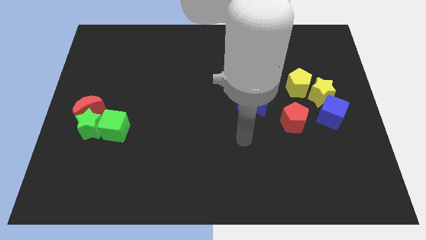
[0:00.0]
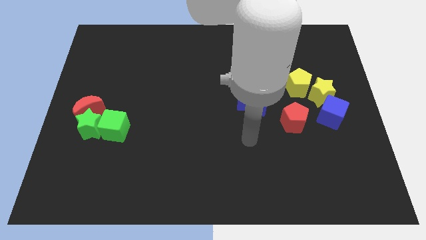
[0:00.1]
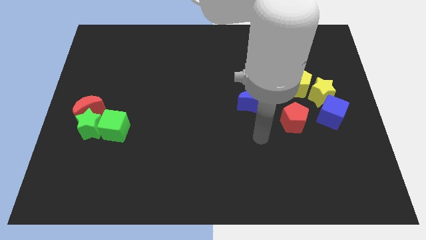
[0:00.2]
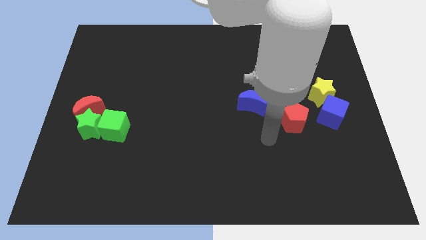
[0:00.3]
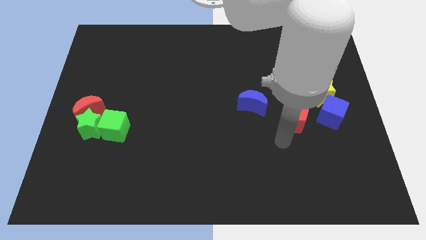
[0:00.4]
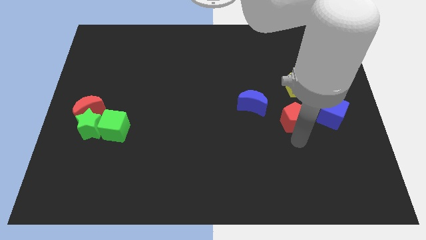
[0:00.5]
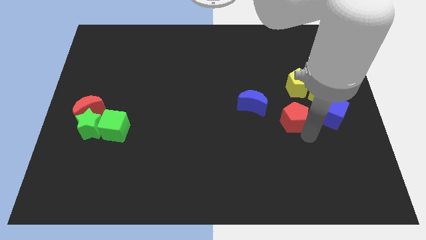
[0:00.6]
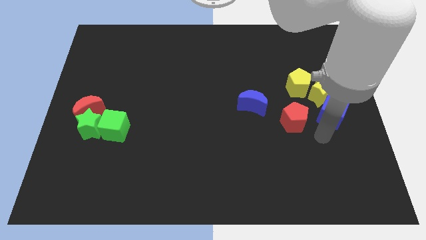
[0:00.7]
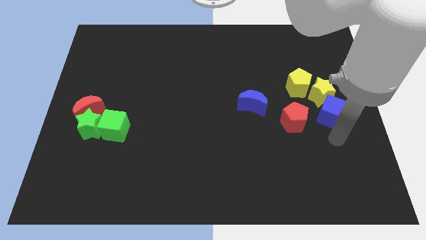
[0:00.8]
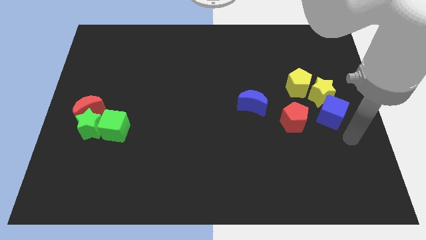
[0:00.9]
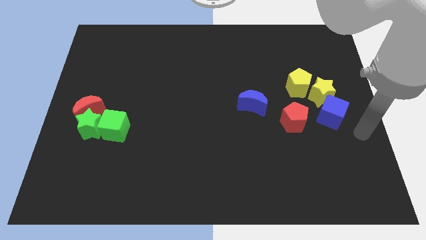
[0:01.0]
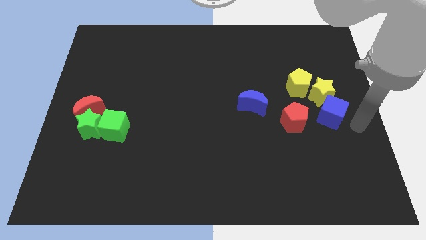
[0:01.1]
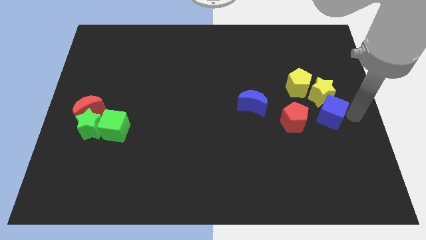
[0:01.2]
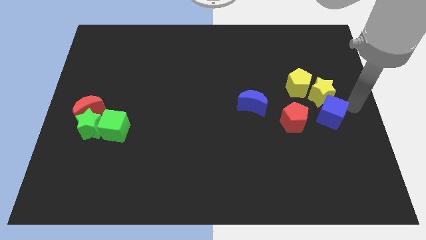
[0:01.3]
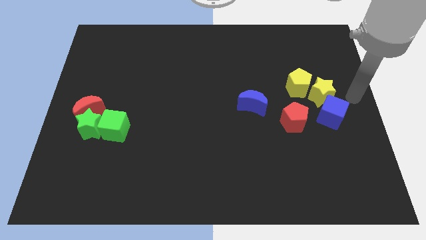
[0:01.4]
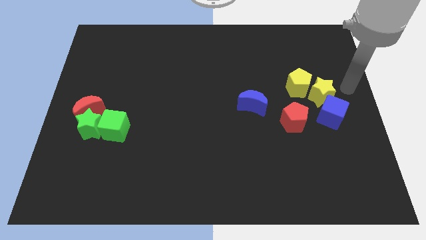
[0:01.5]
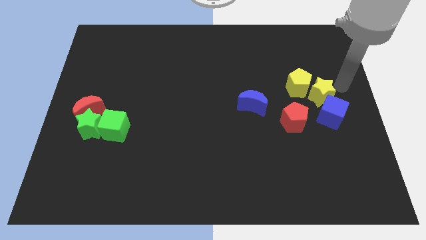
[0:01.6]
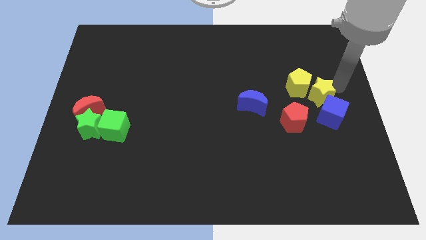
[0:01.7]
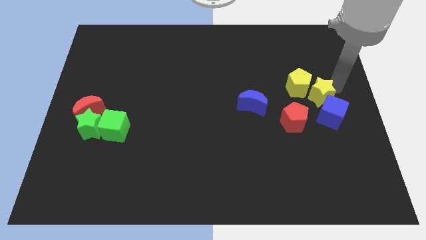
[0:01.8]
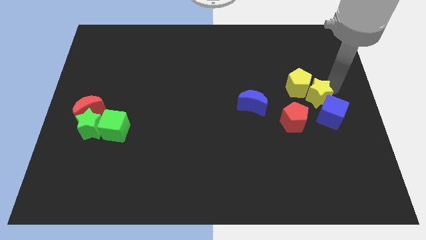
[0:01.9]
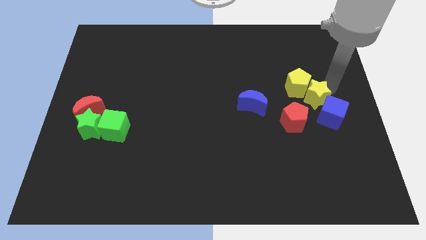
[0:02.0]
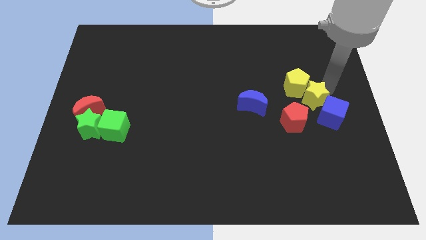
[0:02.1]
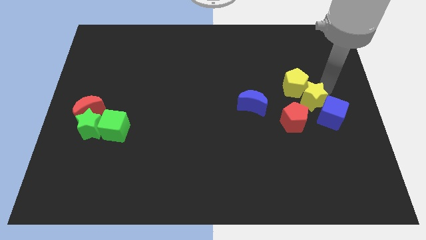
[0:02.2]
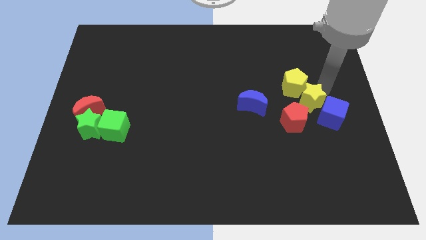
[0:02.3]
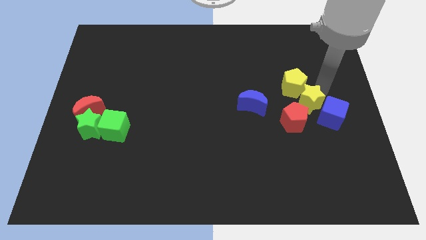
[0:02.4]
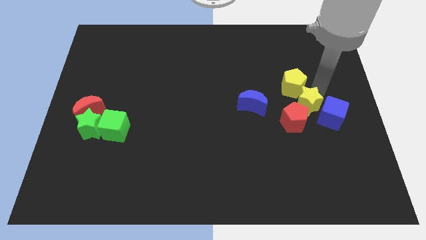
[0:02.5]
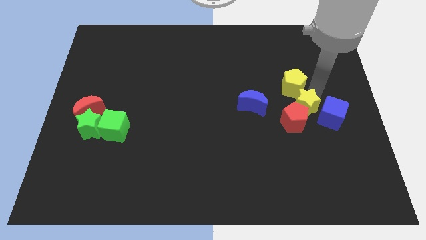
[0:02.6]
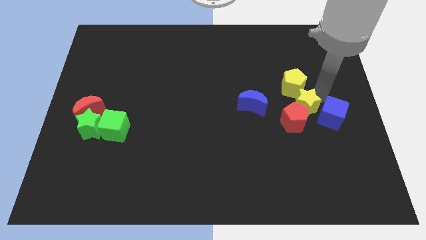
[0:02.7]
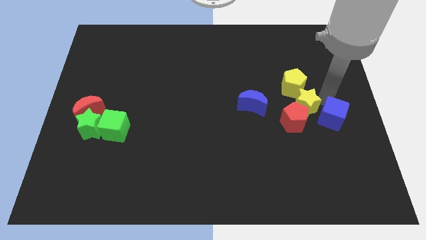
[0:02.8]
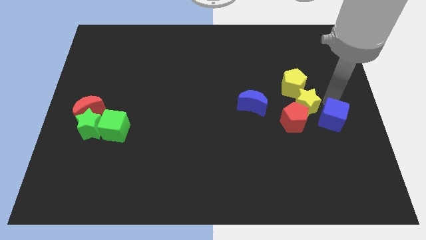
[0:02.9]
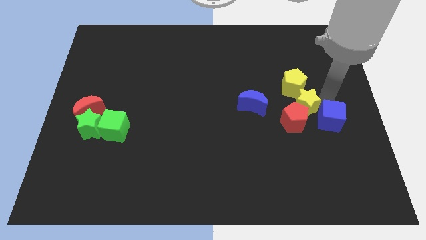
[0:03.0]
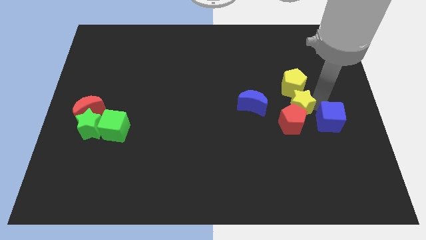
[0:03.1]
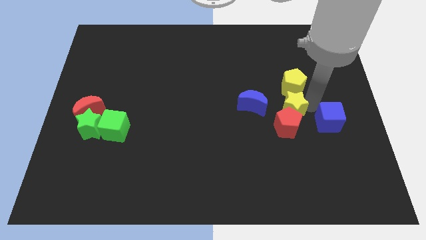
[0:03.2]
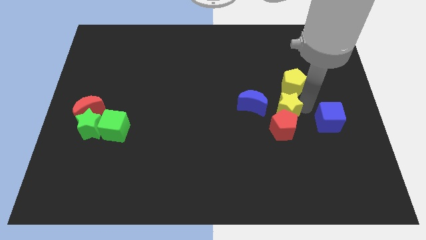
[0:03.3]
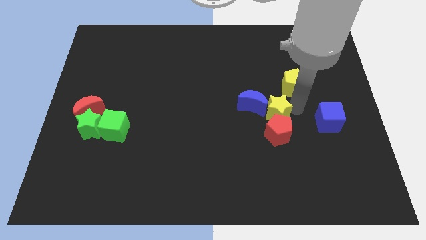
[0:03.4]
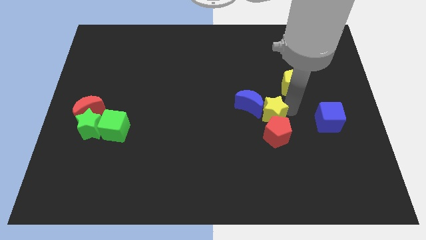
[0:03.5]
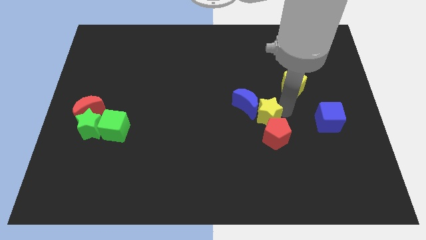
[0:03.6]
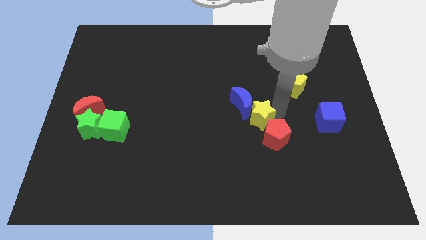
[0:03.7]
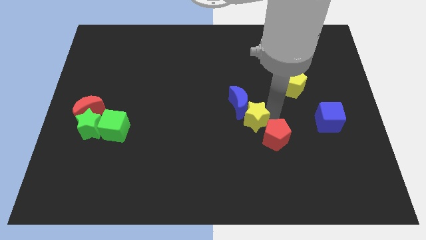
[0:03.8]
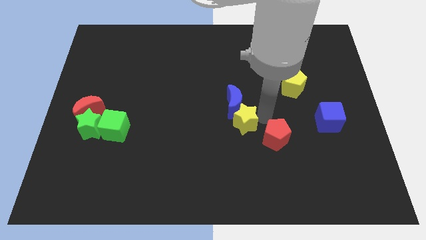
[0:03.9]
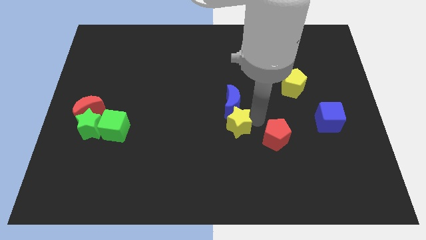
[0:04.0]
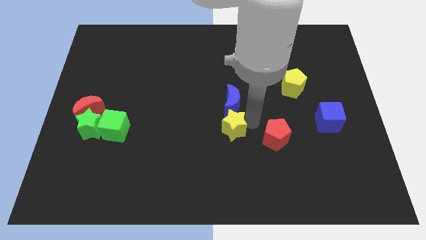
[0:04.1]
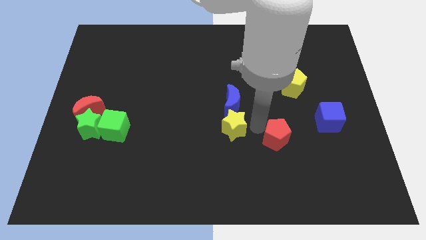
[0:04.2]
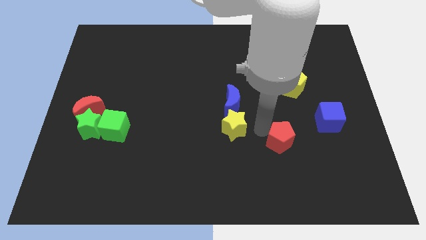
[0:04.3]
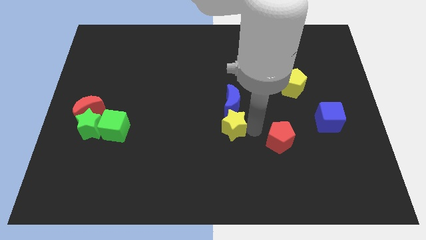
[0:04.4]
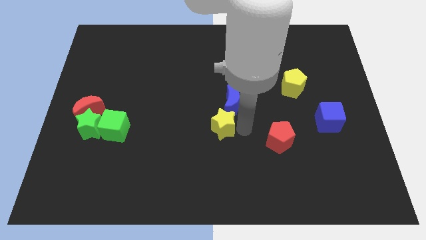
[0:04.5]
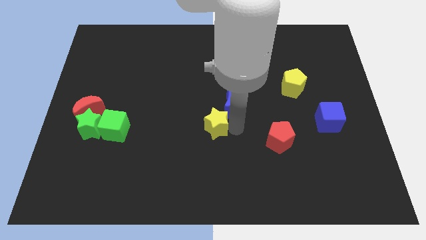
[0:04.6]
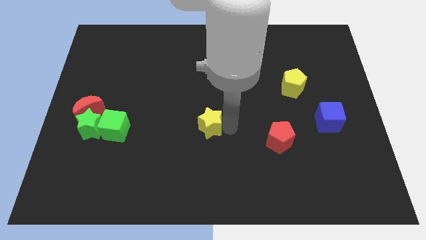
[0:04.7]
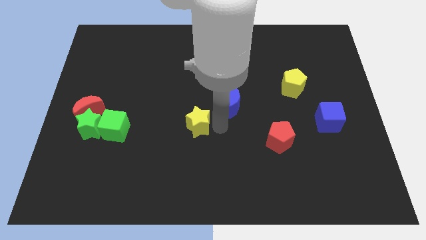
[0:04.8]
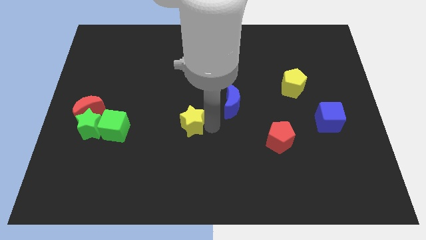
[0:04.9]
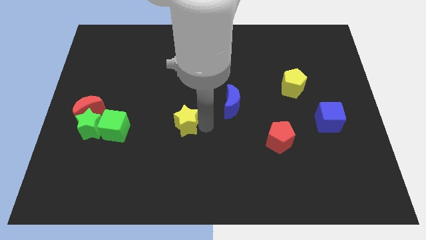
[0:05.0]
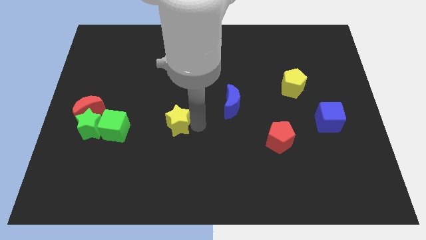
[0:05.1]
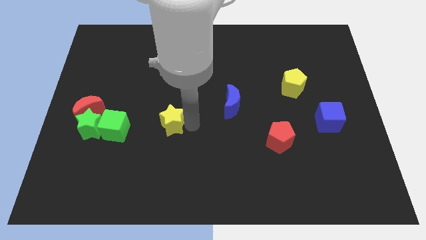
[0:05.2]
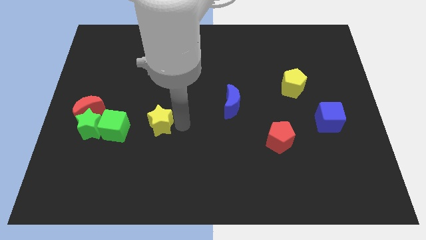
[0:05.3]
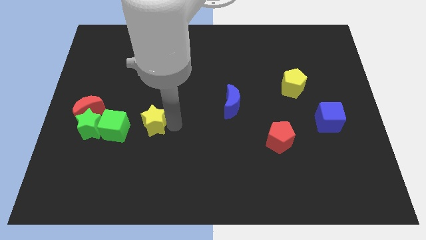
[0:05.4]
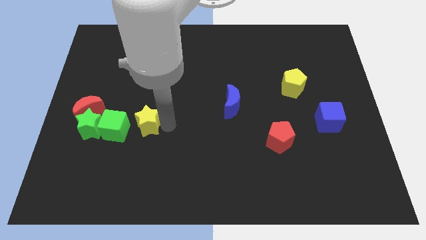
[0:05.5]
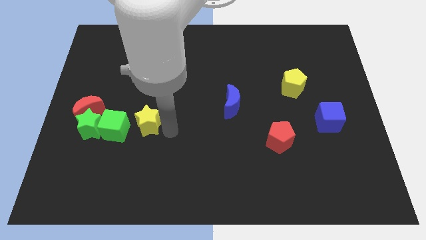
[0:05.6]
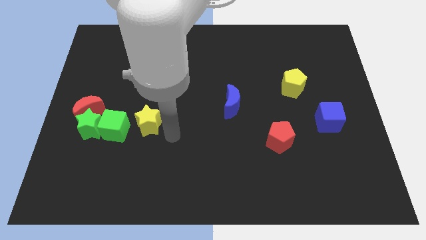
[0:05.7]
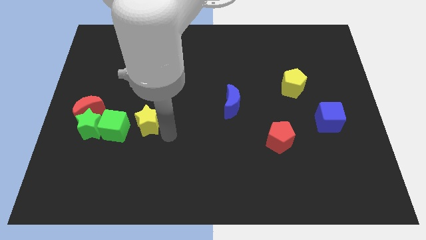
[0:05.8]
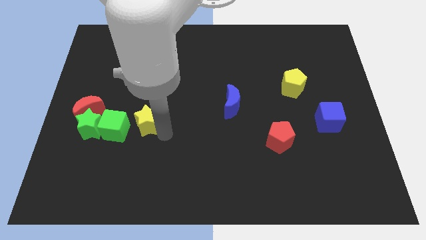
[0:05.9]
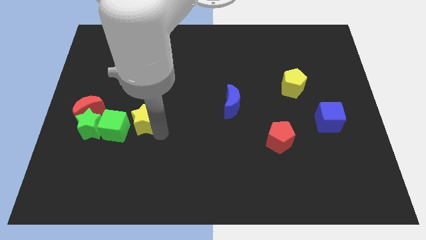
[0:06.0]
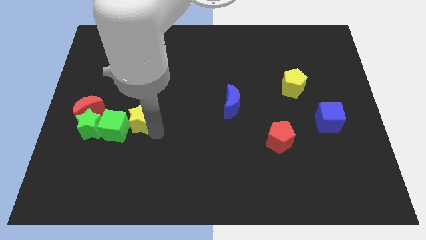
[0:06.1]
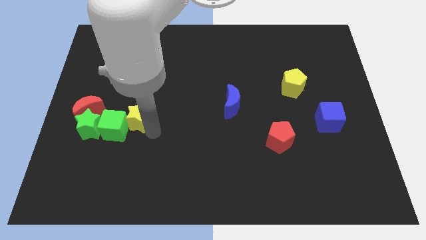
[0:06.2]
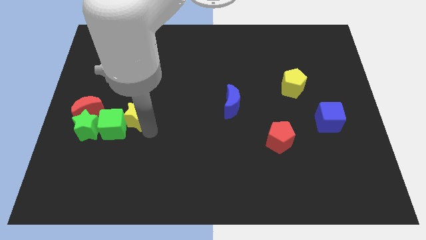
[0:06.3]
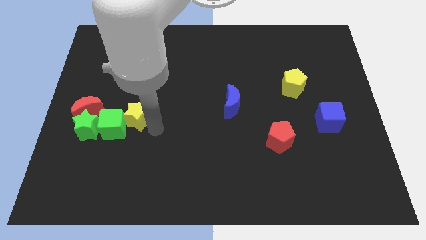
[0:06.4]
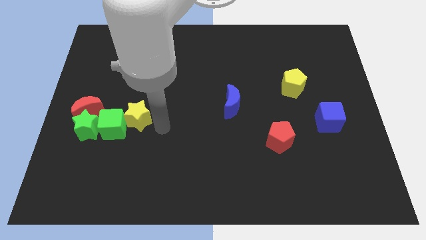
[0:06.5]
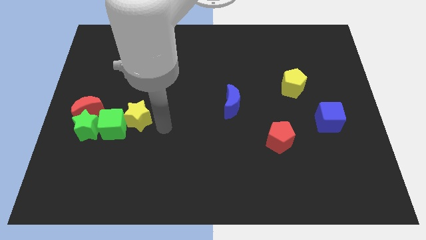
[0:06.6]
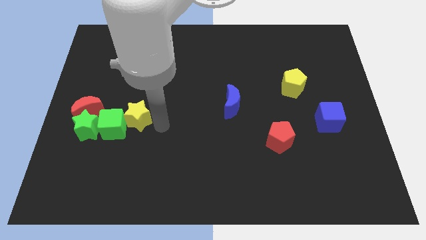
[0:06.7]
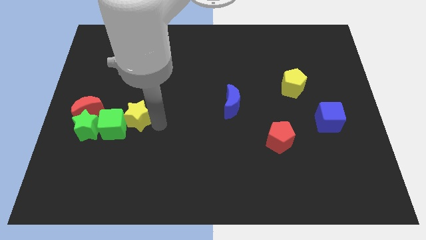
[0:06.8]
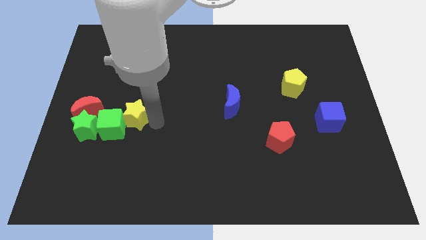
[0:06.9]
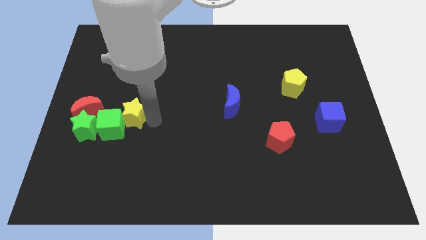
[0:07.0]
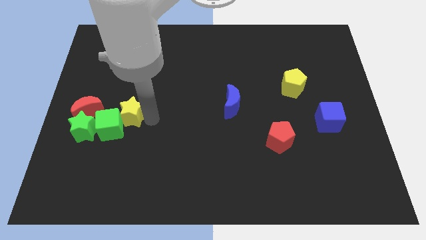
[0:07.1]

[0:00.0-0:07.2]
move the yellow star to the top right side of the green star
